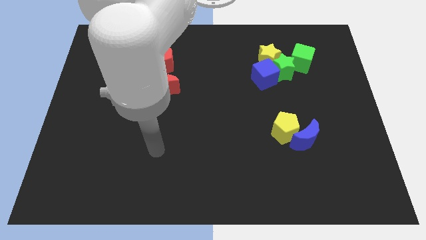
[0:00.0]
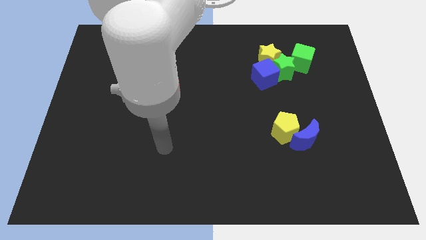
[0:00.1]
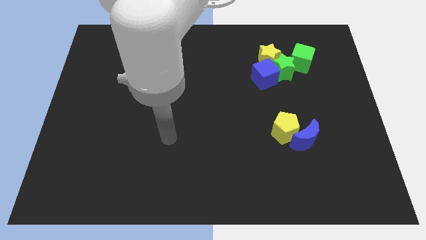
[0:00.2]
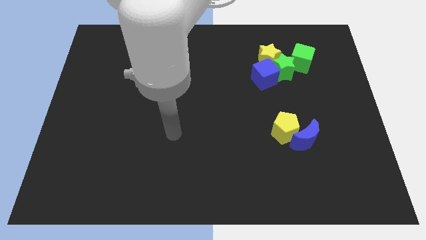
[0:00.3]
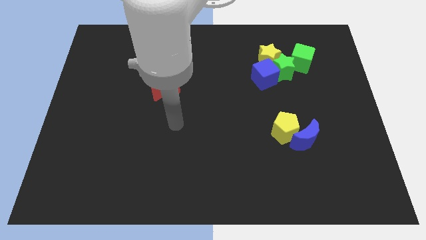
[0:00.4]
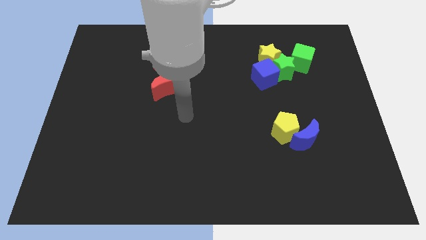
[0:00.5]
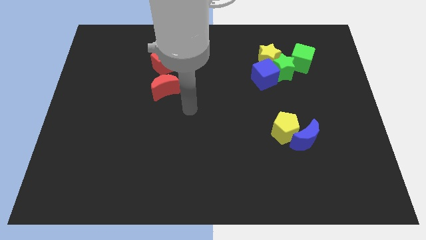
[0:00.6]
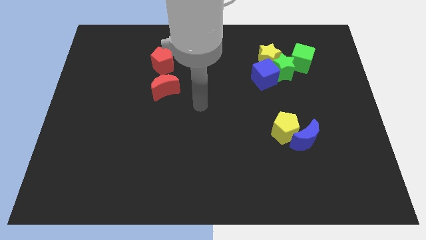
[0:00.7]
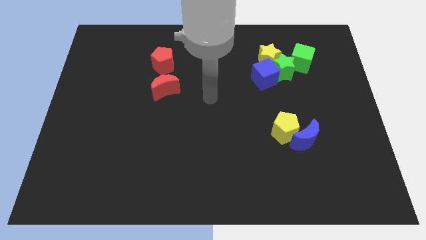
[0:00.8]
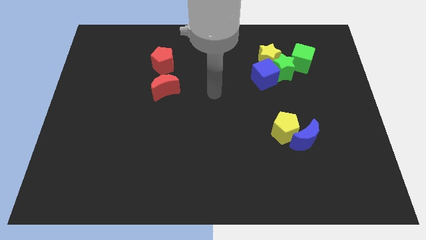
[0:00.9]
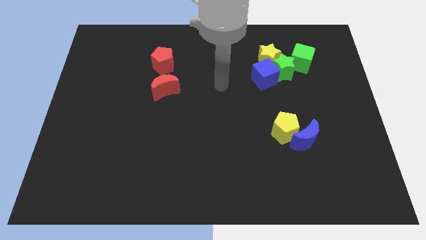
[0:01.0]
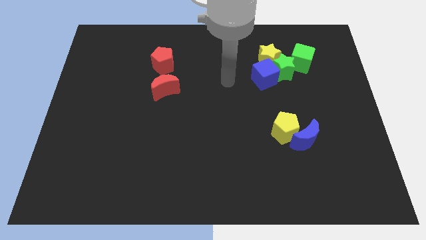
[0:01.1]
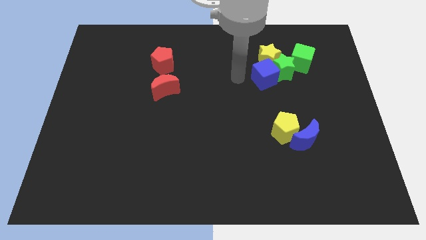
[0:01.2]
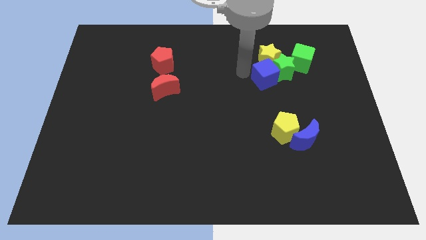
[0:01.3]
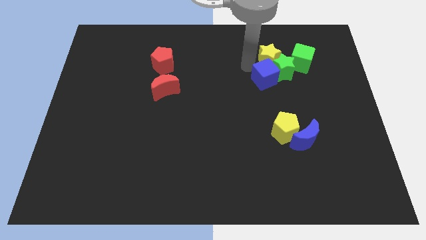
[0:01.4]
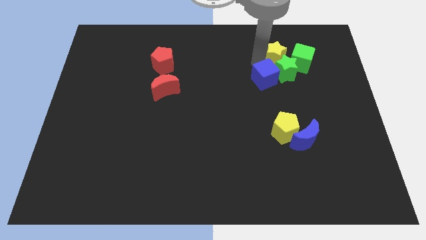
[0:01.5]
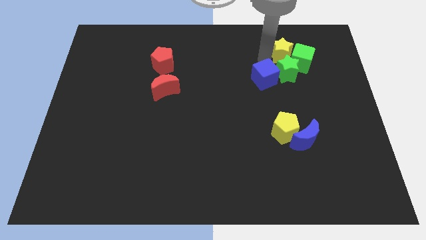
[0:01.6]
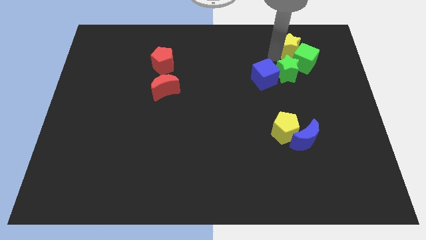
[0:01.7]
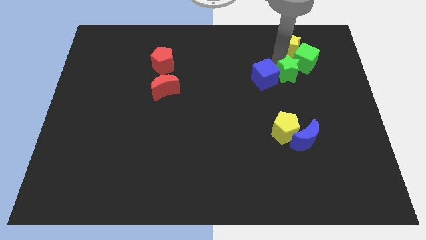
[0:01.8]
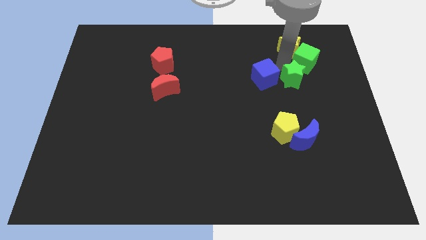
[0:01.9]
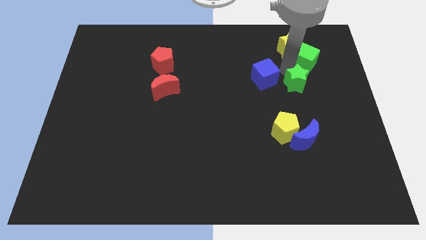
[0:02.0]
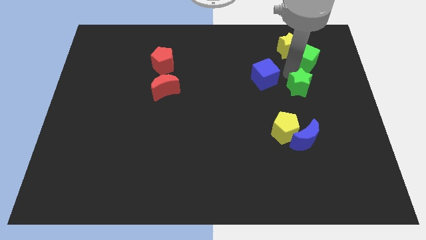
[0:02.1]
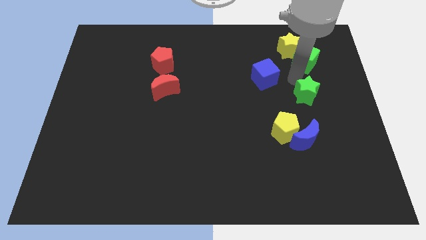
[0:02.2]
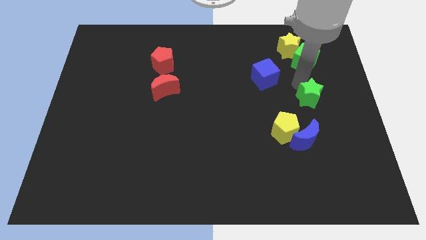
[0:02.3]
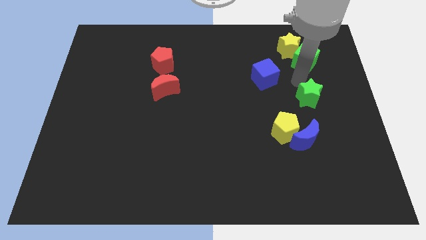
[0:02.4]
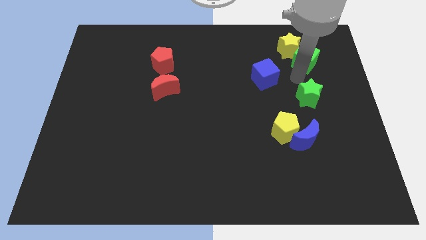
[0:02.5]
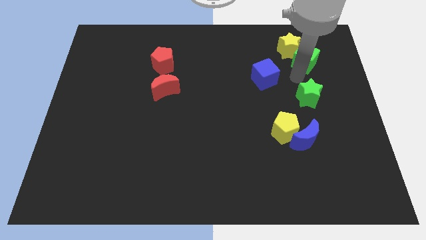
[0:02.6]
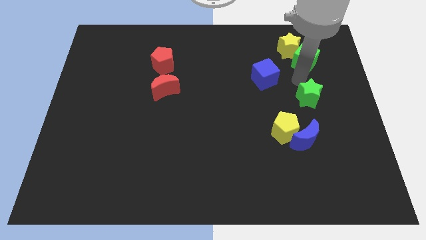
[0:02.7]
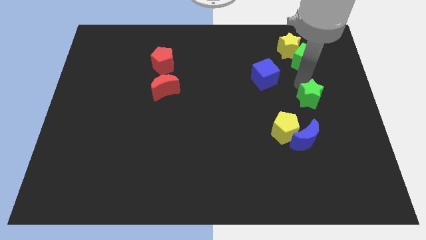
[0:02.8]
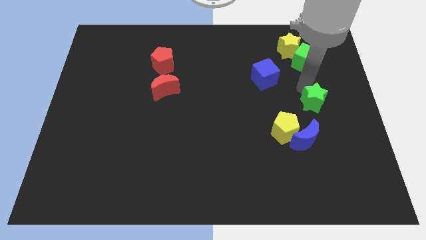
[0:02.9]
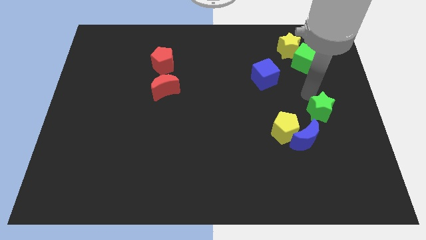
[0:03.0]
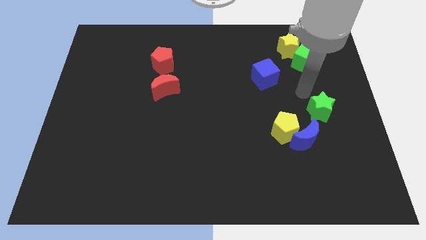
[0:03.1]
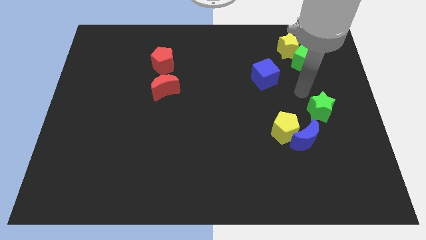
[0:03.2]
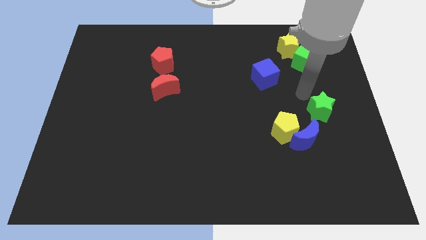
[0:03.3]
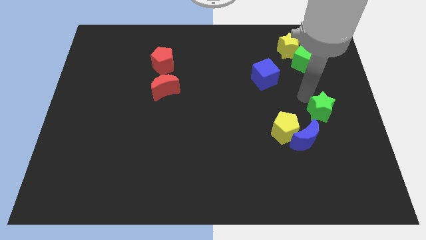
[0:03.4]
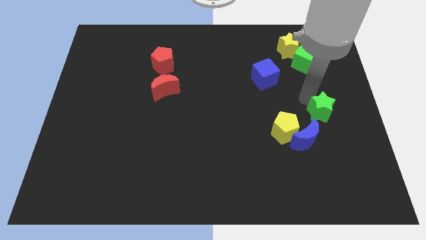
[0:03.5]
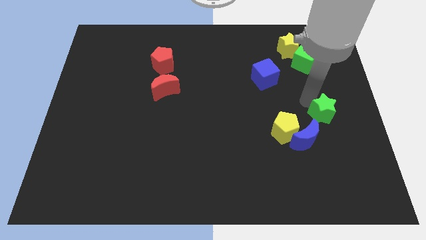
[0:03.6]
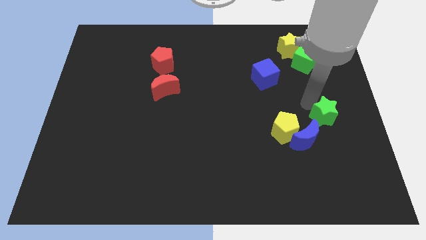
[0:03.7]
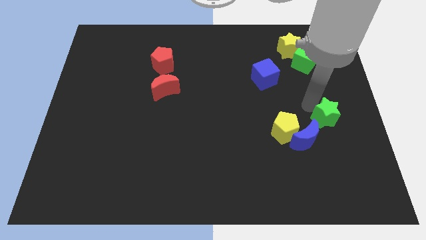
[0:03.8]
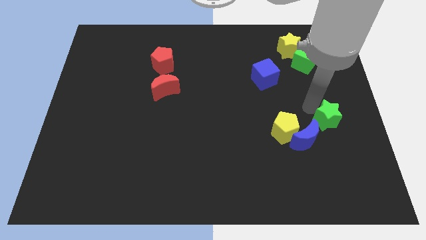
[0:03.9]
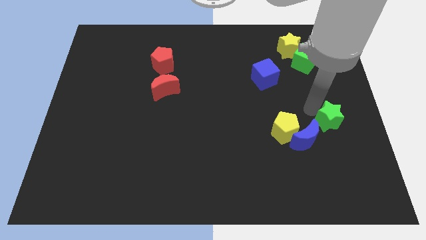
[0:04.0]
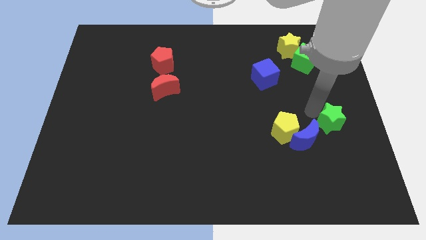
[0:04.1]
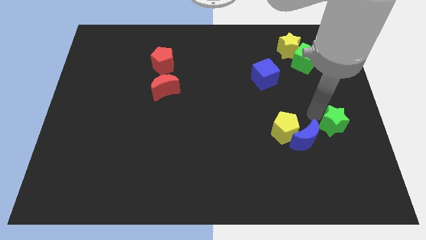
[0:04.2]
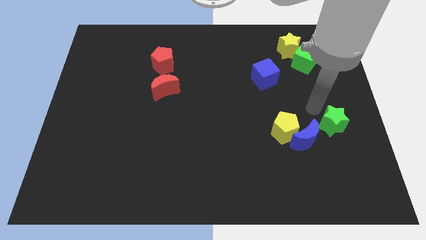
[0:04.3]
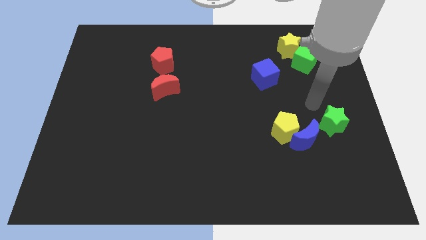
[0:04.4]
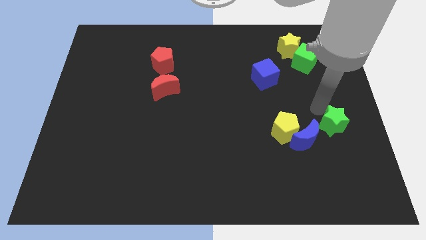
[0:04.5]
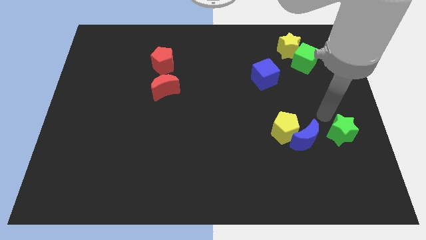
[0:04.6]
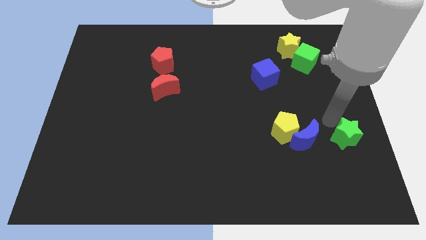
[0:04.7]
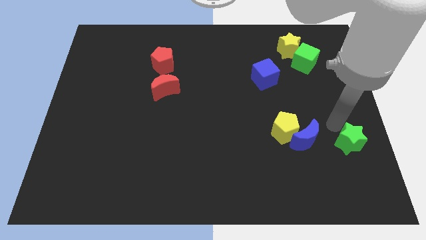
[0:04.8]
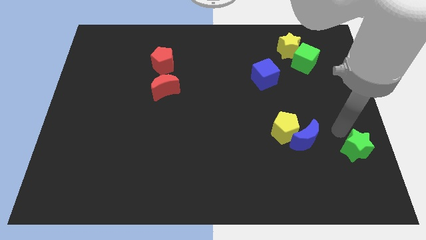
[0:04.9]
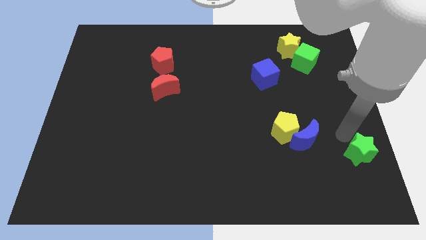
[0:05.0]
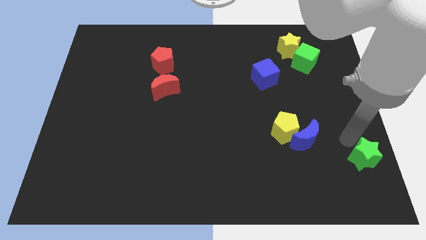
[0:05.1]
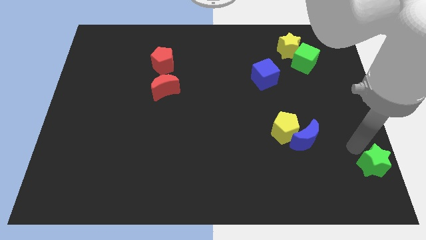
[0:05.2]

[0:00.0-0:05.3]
put the green star to the lower right corner

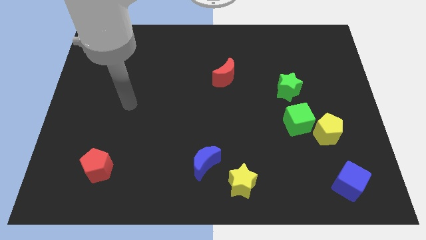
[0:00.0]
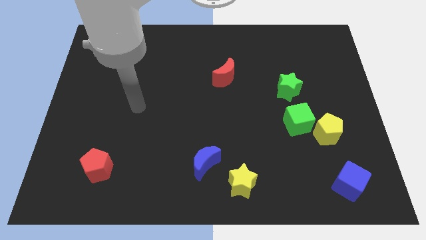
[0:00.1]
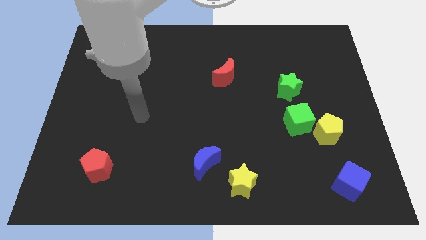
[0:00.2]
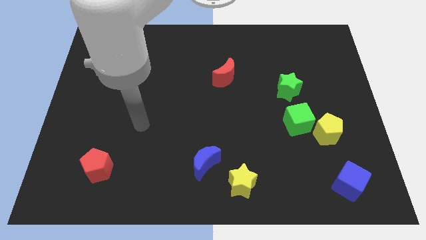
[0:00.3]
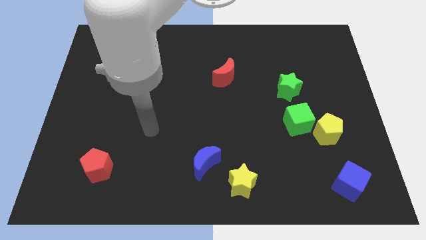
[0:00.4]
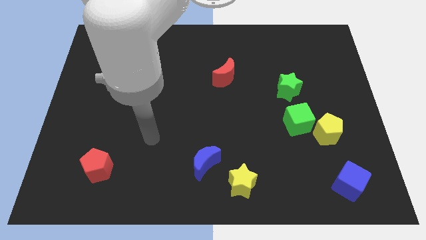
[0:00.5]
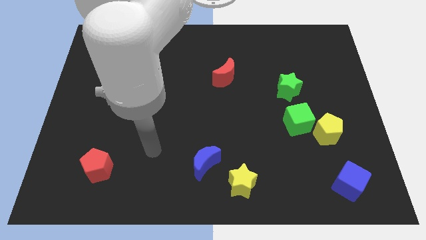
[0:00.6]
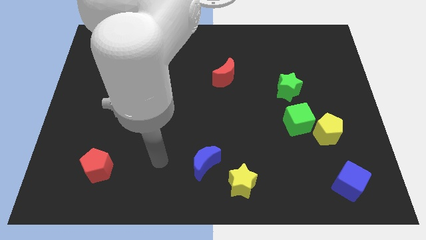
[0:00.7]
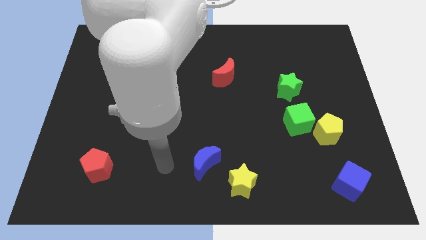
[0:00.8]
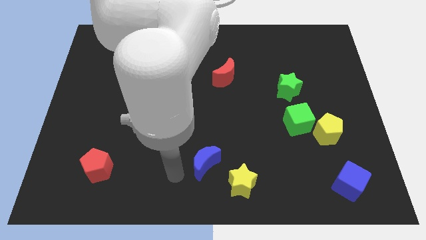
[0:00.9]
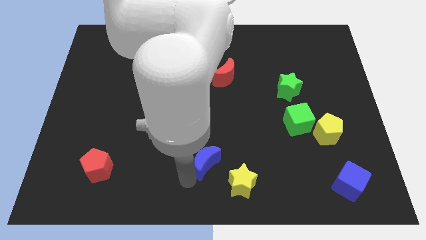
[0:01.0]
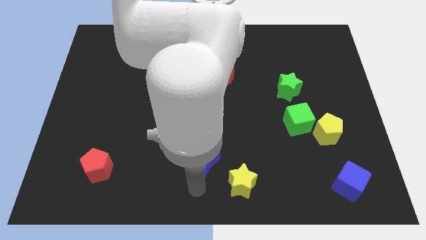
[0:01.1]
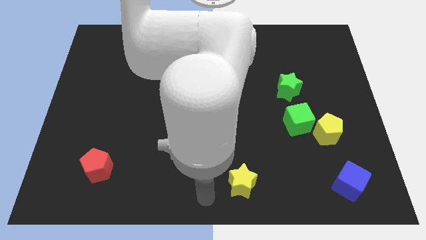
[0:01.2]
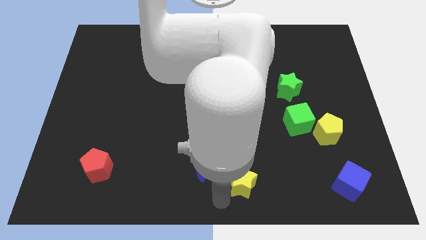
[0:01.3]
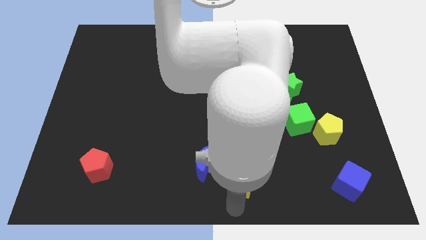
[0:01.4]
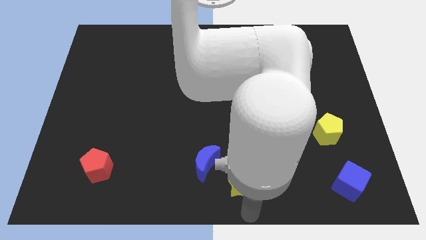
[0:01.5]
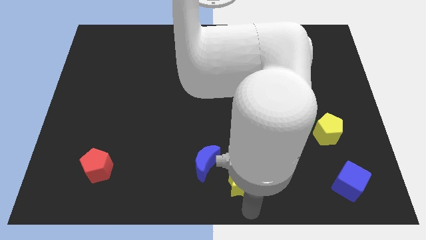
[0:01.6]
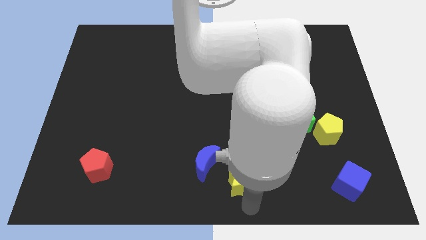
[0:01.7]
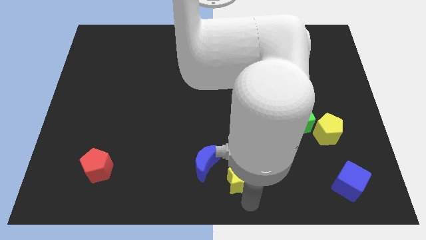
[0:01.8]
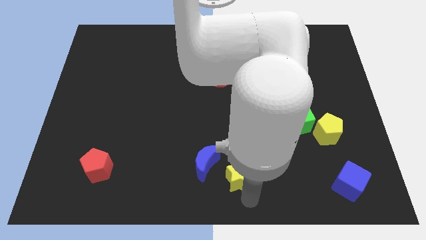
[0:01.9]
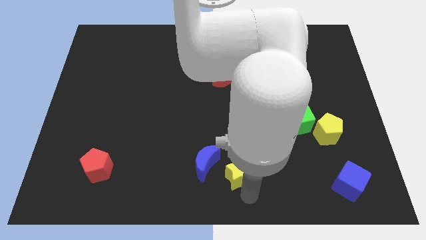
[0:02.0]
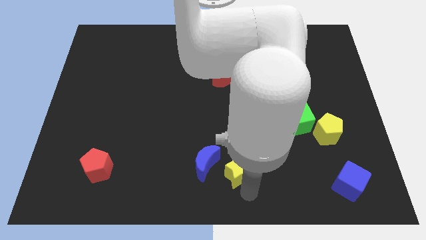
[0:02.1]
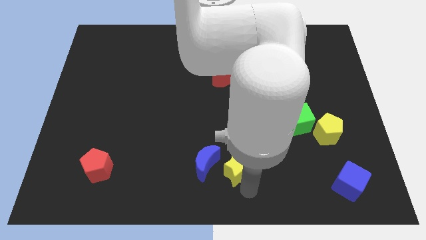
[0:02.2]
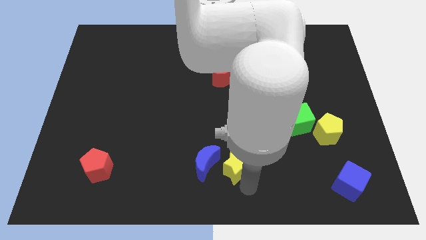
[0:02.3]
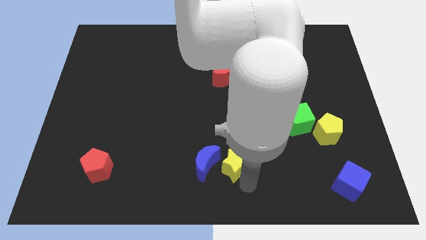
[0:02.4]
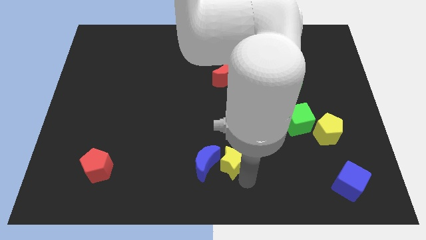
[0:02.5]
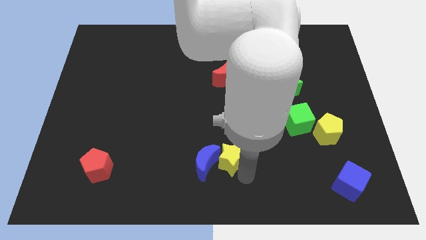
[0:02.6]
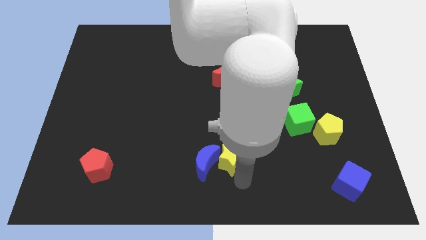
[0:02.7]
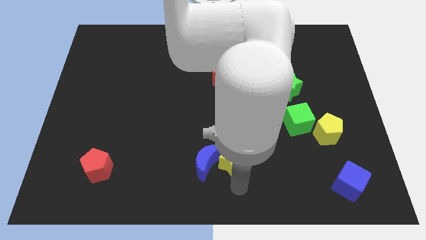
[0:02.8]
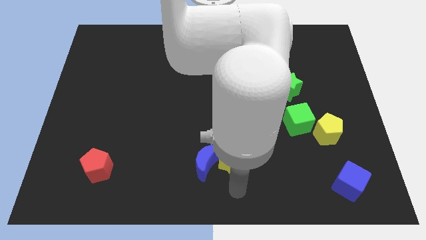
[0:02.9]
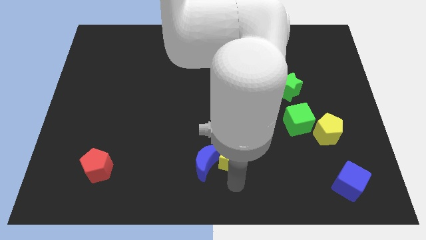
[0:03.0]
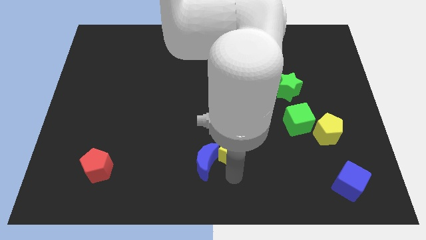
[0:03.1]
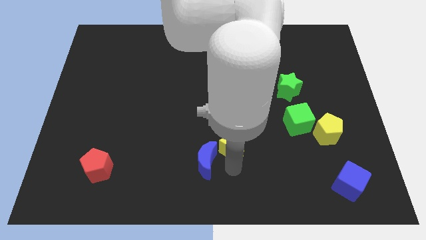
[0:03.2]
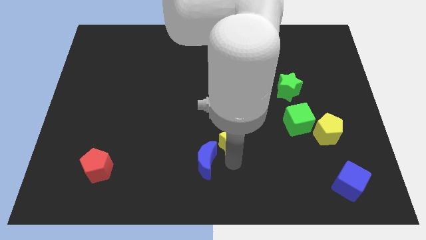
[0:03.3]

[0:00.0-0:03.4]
move the yellow star to the center
